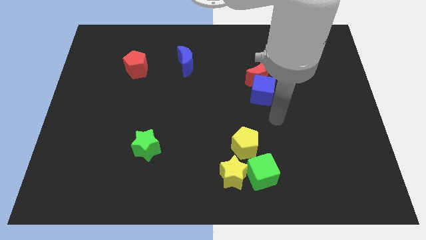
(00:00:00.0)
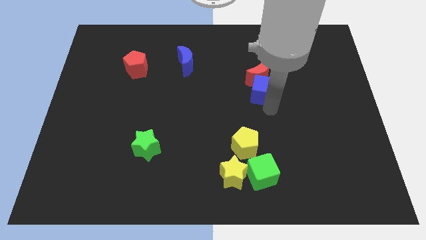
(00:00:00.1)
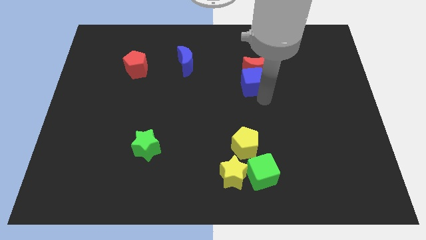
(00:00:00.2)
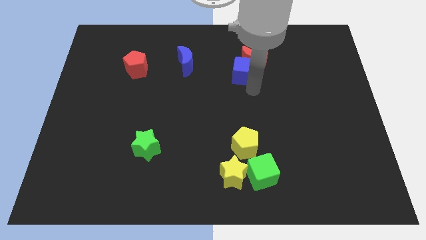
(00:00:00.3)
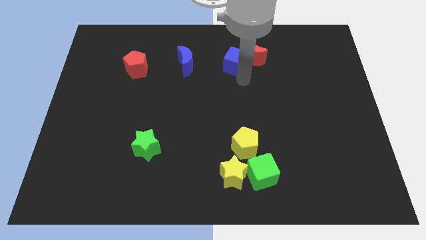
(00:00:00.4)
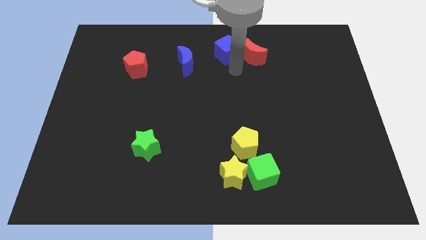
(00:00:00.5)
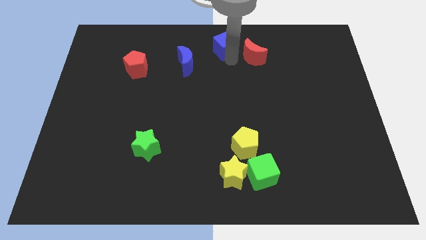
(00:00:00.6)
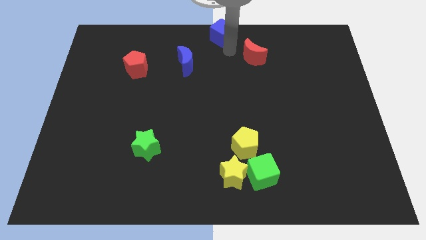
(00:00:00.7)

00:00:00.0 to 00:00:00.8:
move the red moon away from the blue cube

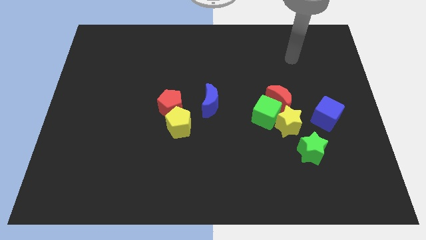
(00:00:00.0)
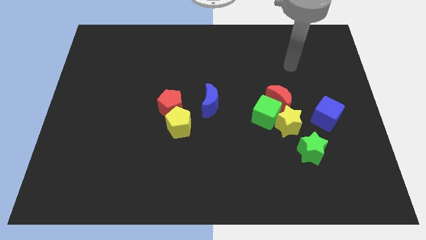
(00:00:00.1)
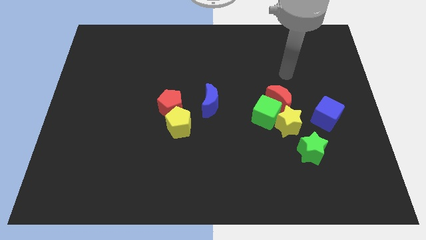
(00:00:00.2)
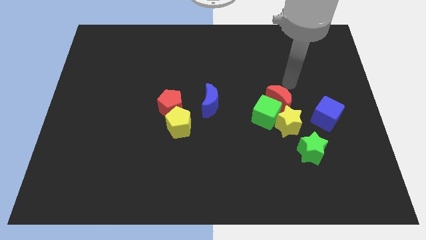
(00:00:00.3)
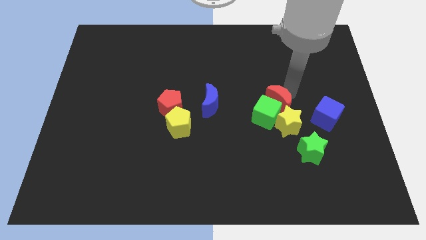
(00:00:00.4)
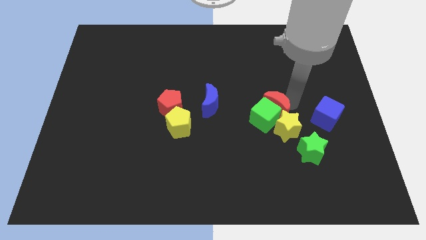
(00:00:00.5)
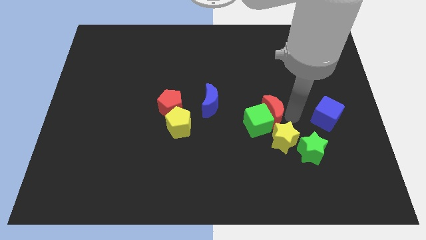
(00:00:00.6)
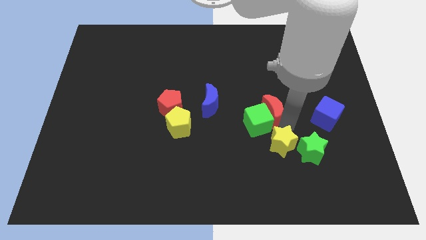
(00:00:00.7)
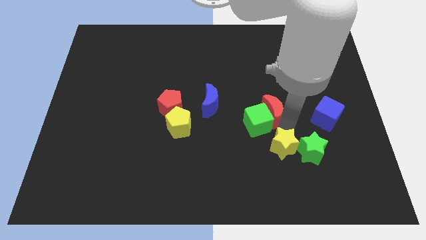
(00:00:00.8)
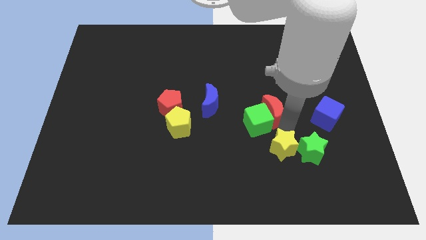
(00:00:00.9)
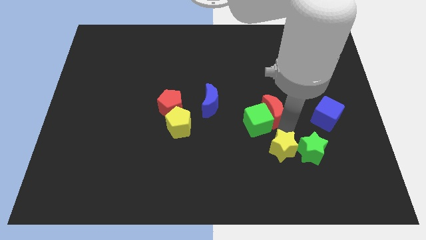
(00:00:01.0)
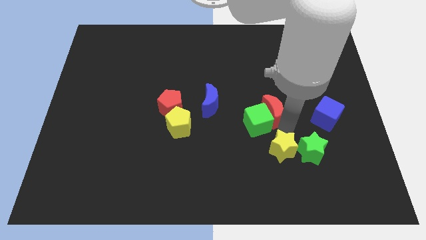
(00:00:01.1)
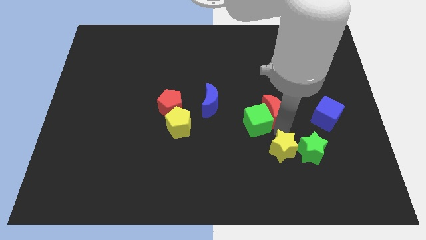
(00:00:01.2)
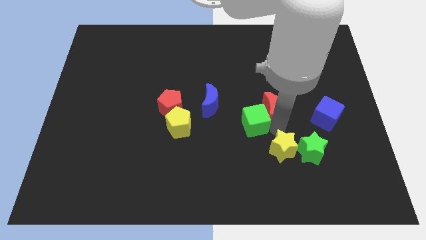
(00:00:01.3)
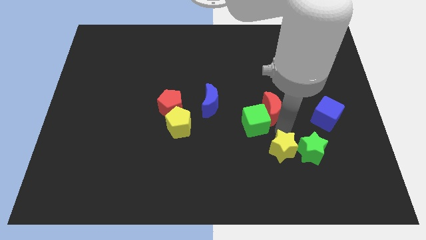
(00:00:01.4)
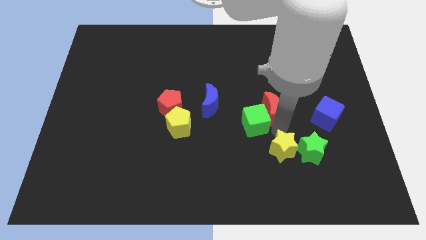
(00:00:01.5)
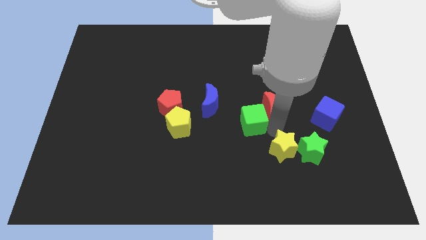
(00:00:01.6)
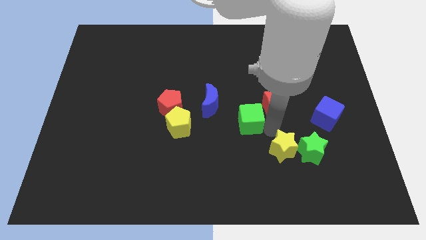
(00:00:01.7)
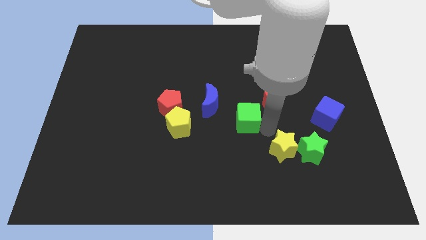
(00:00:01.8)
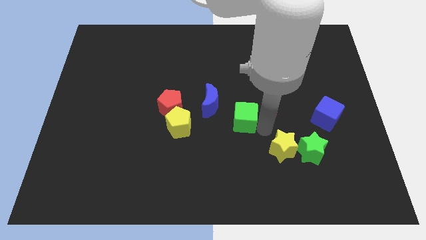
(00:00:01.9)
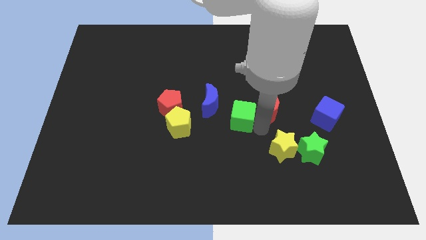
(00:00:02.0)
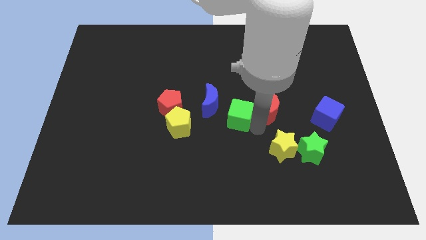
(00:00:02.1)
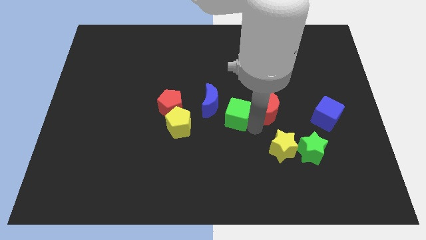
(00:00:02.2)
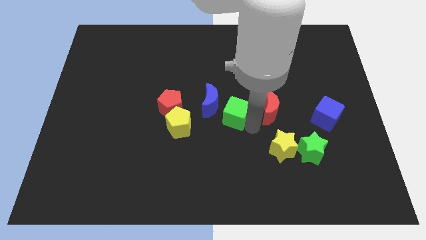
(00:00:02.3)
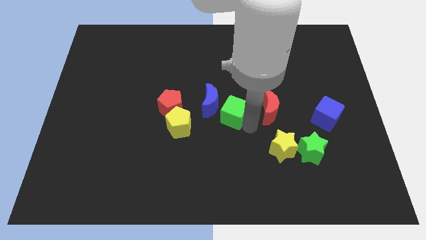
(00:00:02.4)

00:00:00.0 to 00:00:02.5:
separate the green cube from the yellow star and red moon

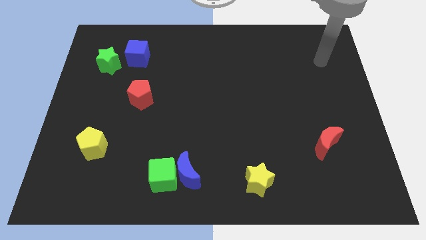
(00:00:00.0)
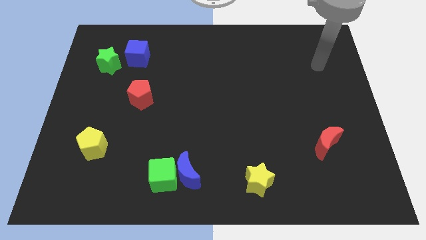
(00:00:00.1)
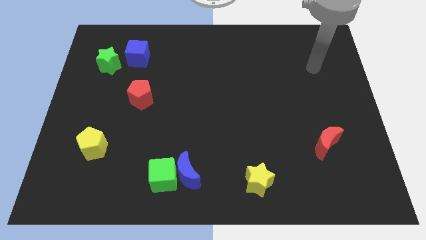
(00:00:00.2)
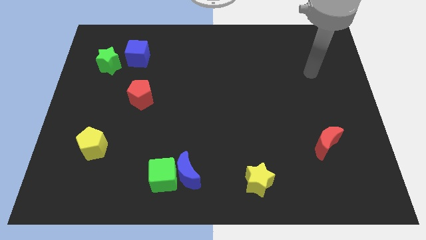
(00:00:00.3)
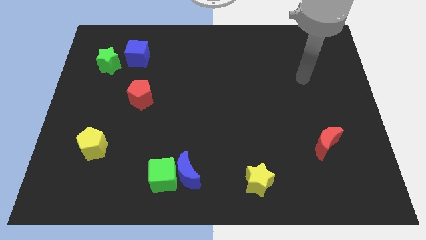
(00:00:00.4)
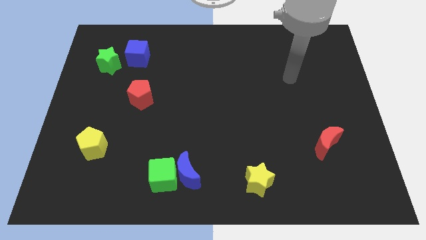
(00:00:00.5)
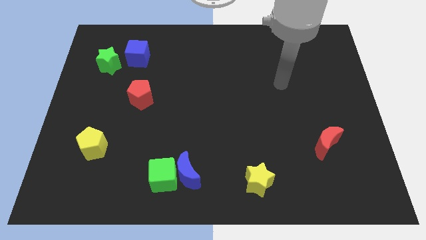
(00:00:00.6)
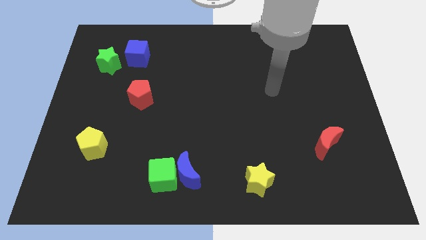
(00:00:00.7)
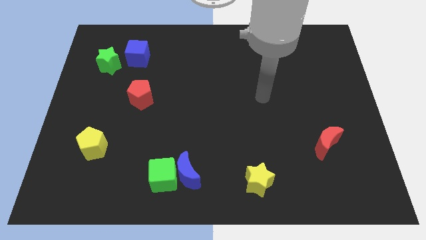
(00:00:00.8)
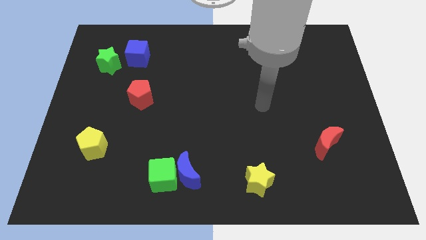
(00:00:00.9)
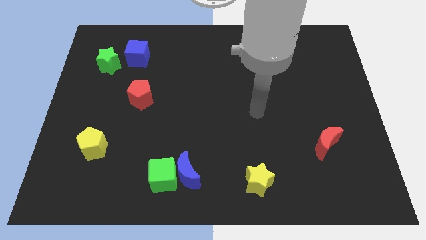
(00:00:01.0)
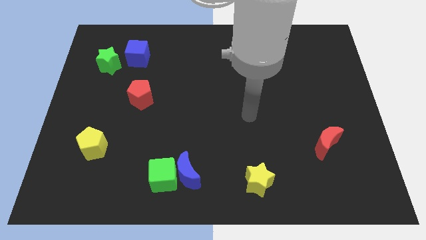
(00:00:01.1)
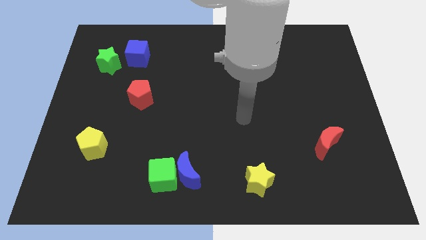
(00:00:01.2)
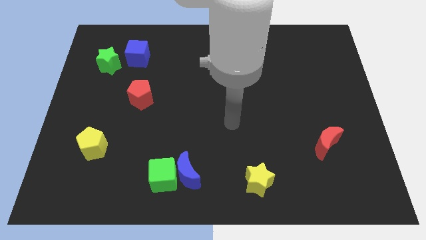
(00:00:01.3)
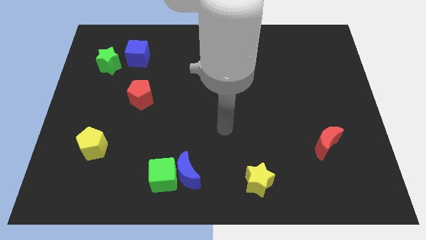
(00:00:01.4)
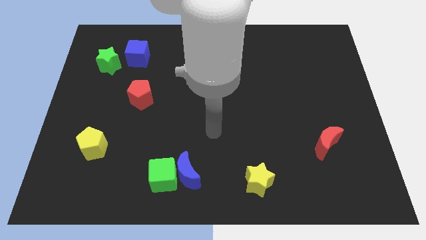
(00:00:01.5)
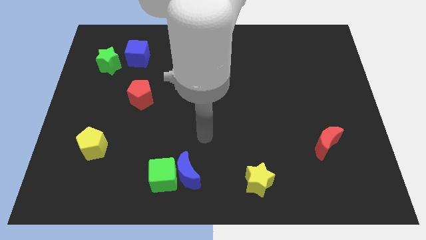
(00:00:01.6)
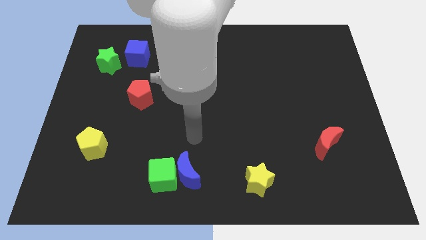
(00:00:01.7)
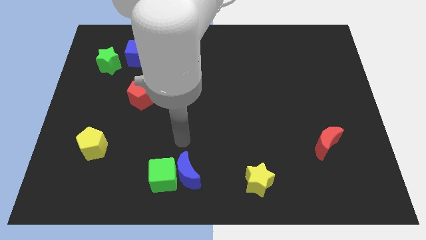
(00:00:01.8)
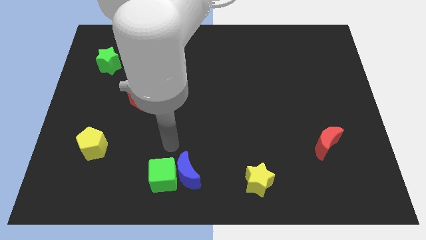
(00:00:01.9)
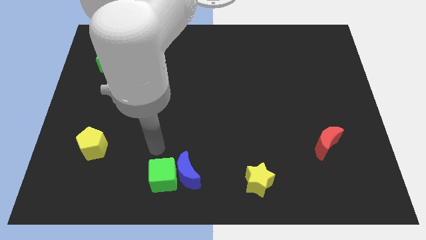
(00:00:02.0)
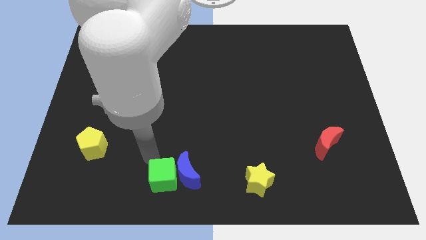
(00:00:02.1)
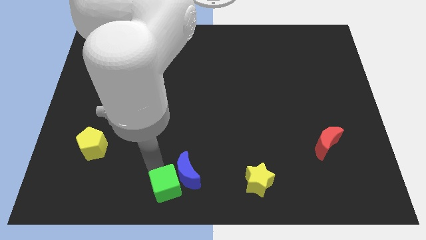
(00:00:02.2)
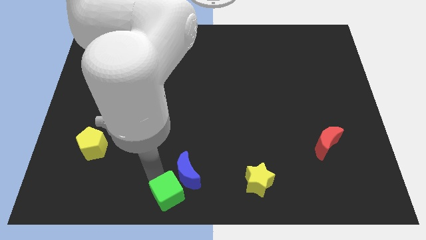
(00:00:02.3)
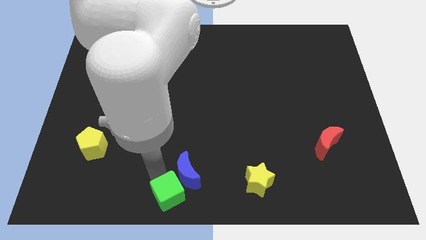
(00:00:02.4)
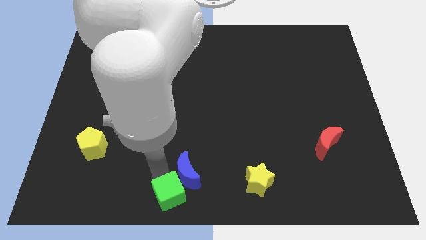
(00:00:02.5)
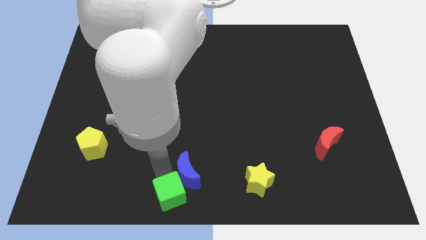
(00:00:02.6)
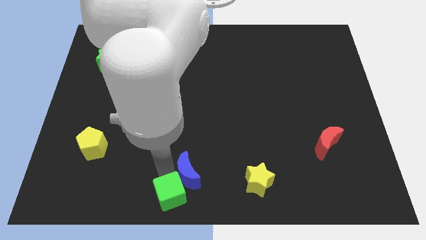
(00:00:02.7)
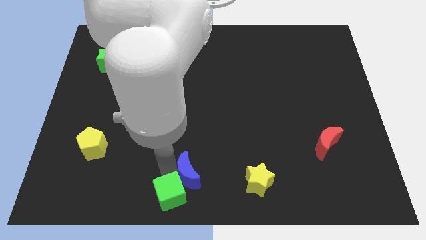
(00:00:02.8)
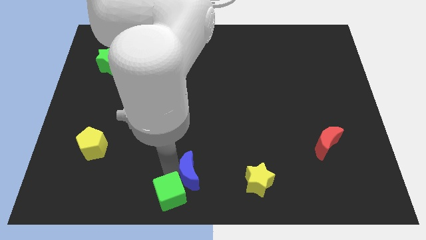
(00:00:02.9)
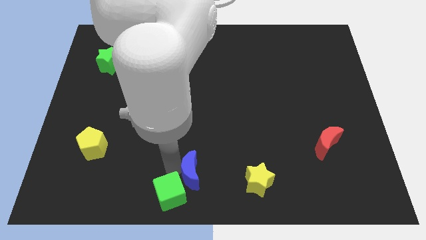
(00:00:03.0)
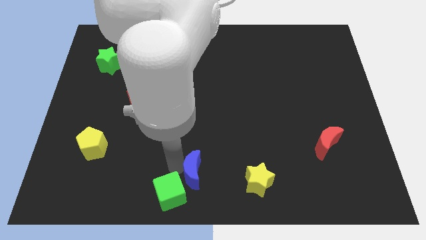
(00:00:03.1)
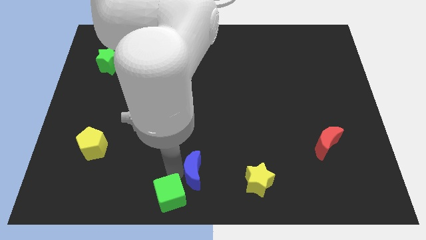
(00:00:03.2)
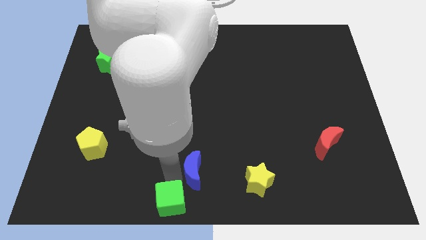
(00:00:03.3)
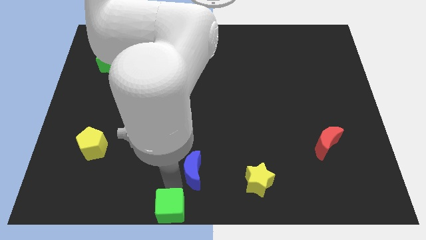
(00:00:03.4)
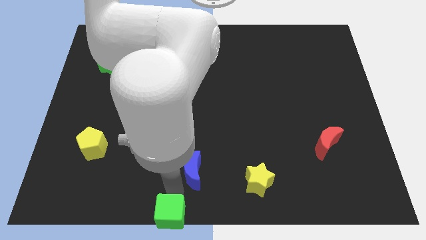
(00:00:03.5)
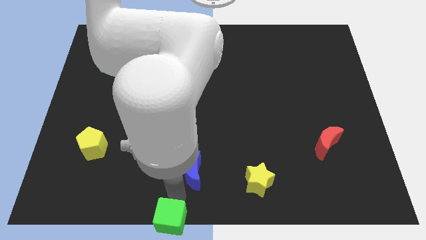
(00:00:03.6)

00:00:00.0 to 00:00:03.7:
move the blue moon away from the green cube

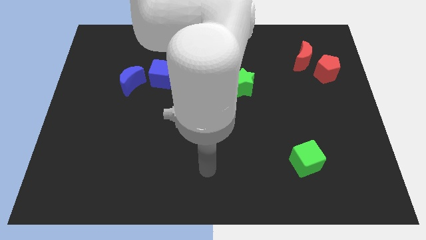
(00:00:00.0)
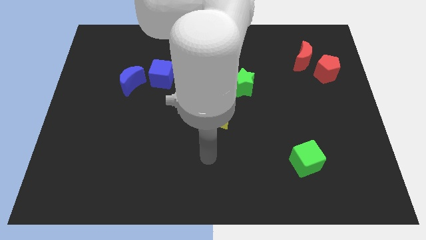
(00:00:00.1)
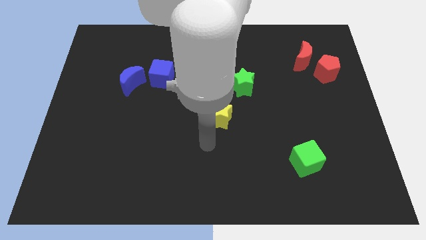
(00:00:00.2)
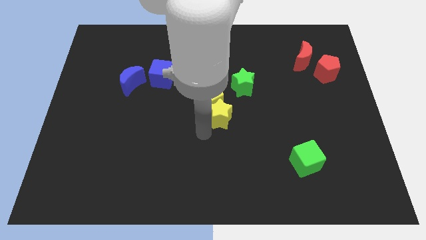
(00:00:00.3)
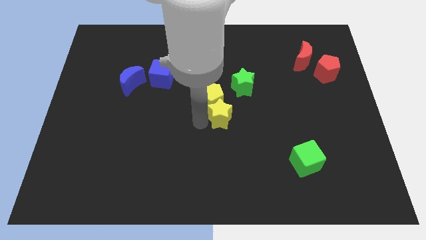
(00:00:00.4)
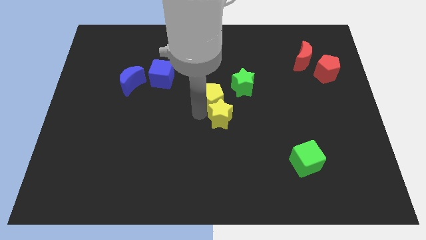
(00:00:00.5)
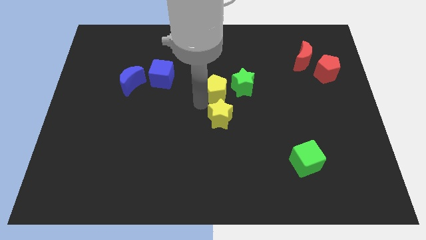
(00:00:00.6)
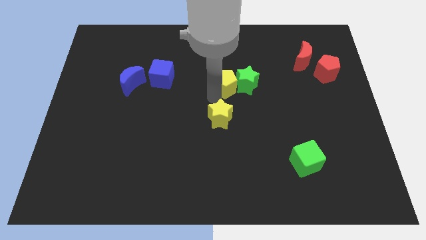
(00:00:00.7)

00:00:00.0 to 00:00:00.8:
move the yellow star away from the yellow pentagon

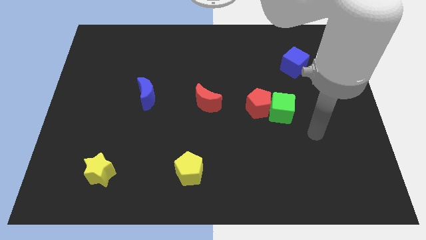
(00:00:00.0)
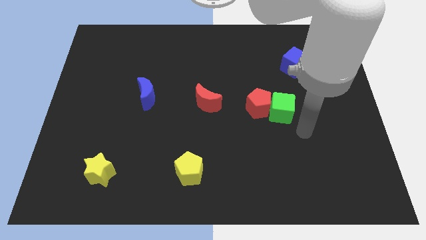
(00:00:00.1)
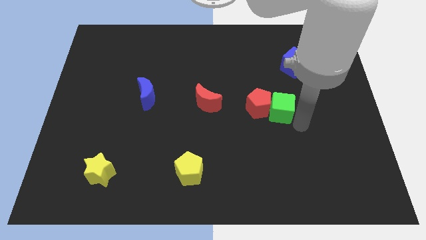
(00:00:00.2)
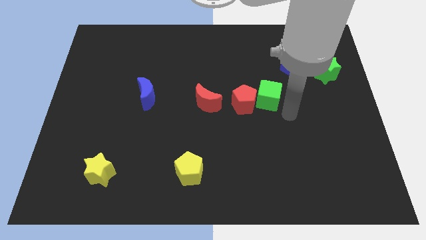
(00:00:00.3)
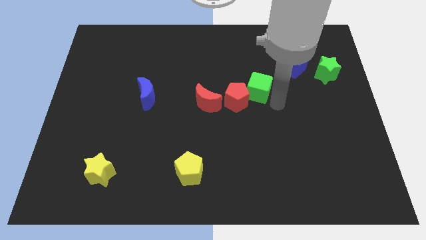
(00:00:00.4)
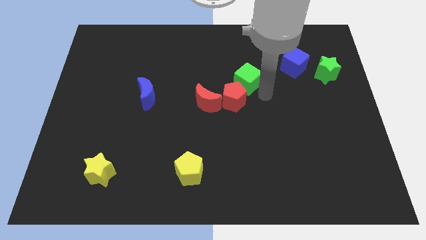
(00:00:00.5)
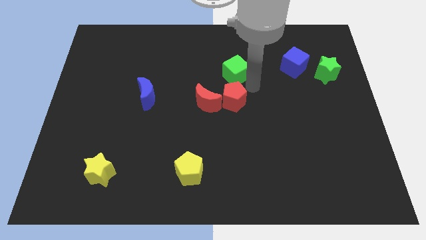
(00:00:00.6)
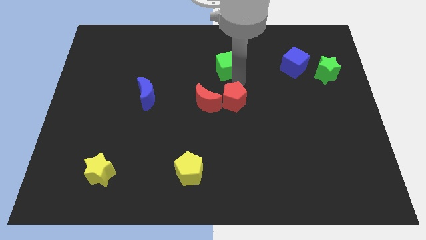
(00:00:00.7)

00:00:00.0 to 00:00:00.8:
separate the red pentagon from the green cube

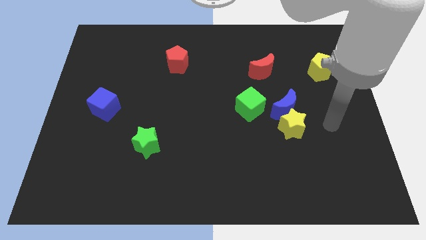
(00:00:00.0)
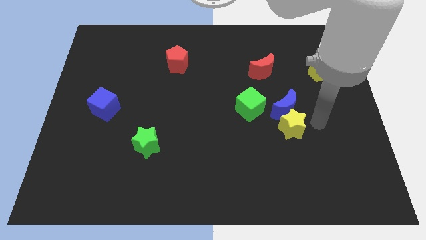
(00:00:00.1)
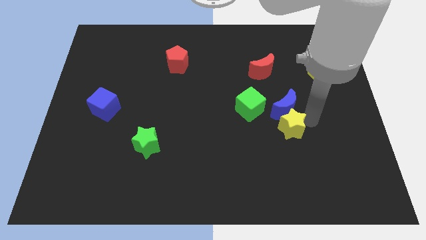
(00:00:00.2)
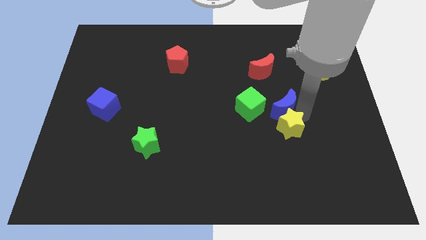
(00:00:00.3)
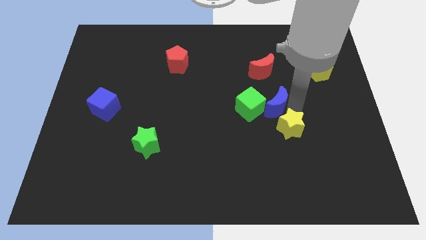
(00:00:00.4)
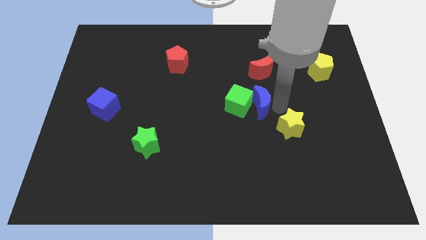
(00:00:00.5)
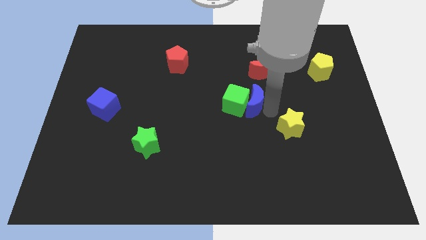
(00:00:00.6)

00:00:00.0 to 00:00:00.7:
separate the yellow star from the blue moon
